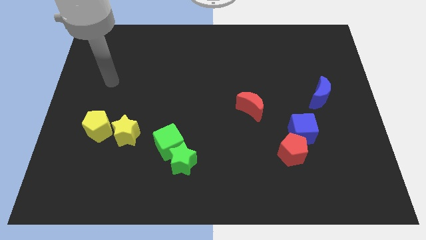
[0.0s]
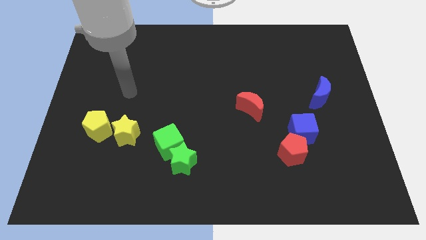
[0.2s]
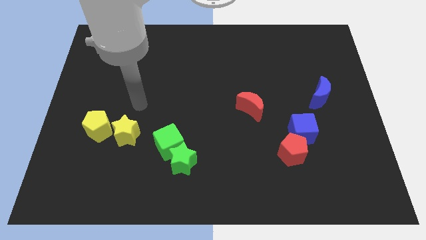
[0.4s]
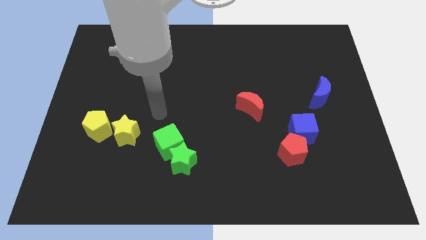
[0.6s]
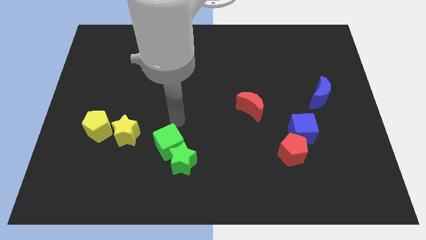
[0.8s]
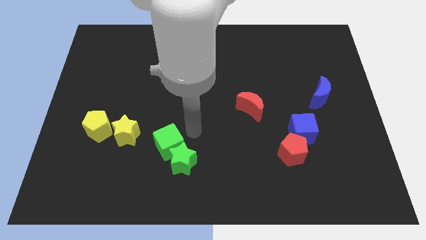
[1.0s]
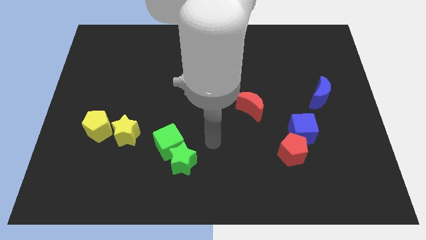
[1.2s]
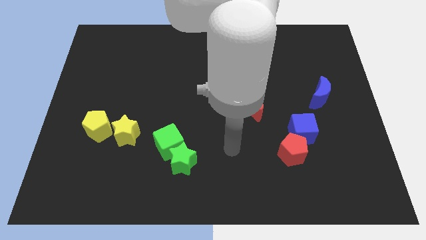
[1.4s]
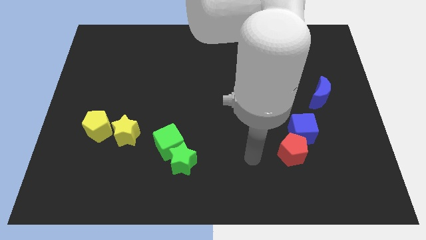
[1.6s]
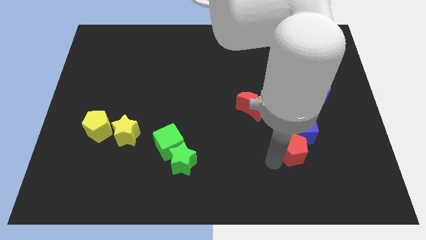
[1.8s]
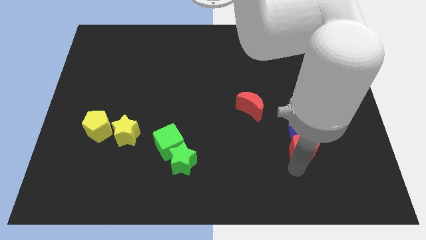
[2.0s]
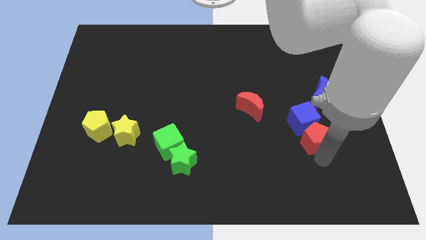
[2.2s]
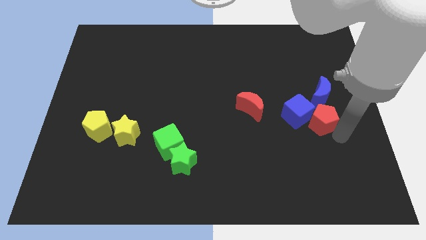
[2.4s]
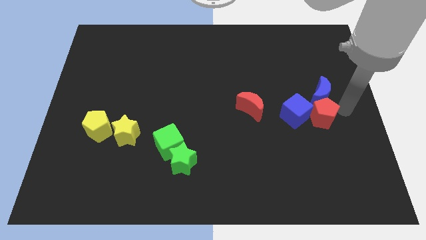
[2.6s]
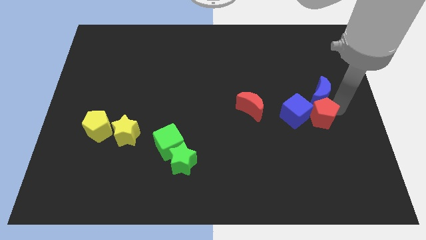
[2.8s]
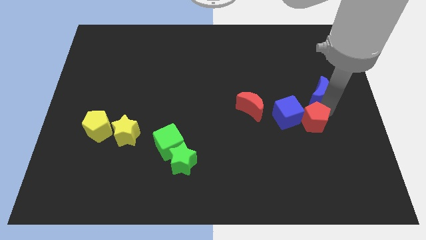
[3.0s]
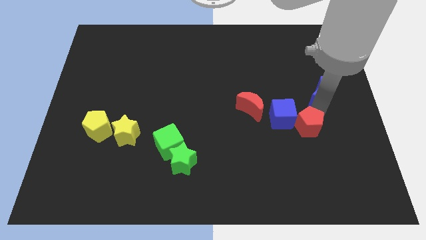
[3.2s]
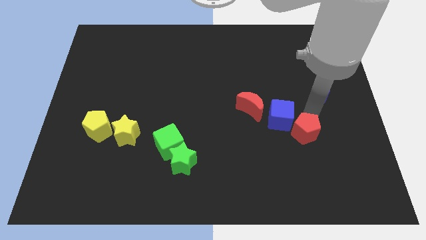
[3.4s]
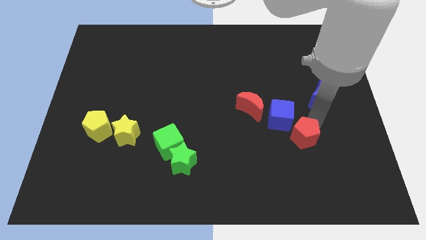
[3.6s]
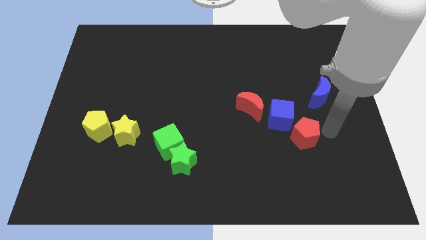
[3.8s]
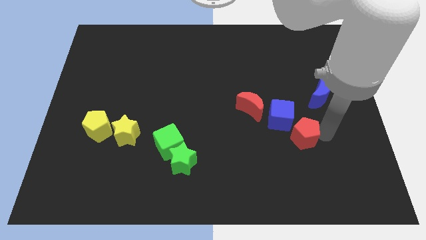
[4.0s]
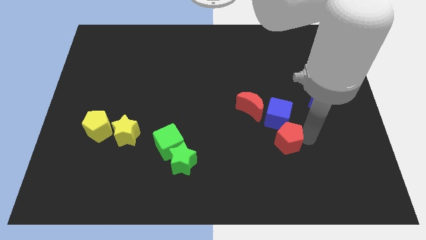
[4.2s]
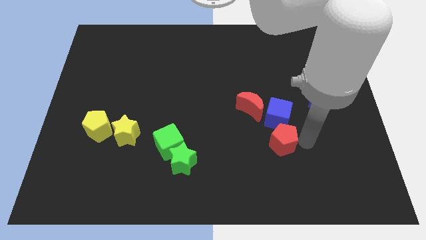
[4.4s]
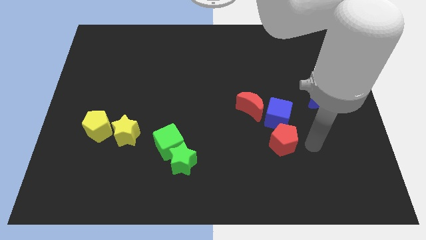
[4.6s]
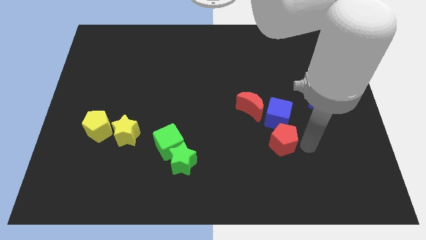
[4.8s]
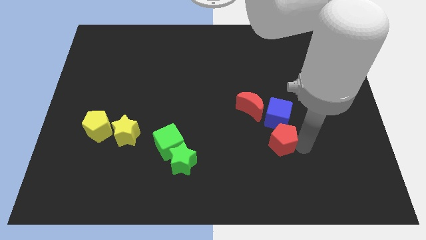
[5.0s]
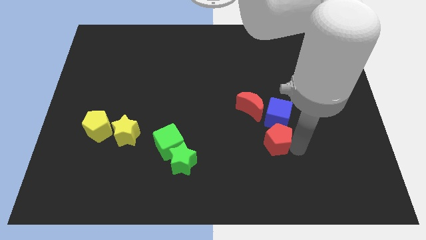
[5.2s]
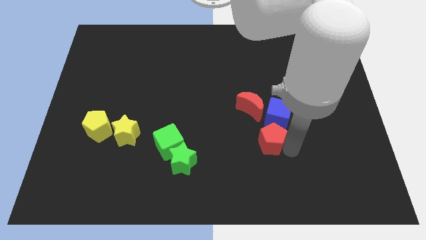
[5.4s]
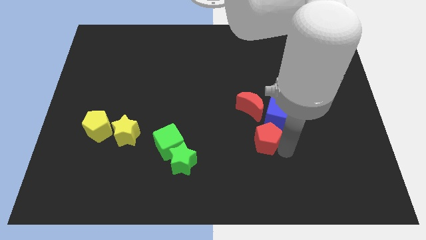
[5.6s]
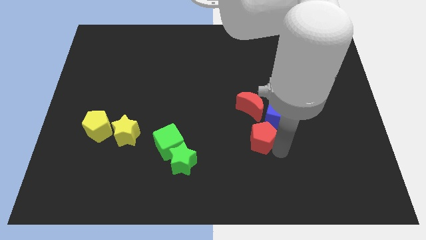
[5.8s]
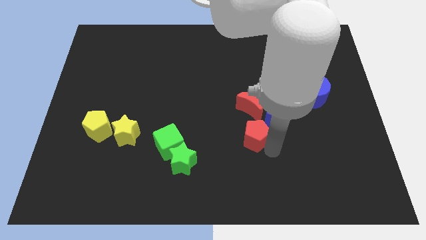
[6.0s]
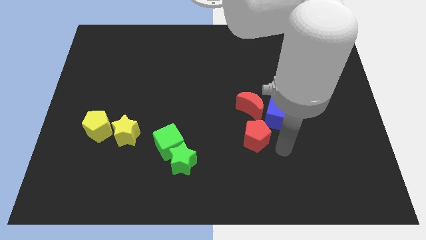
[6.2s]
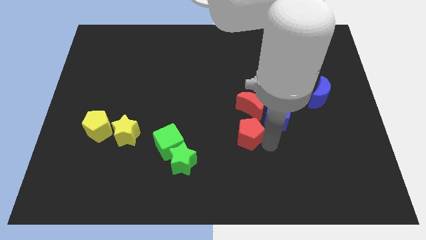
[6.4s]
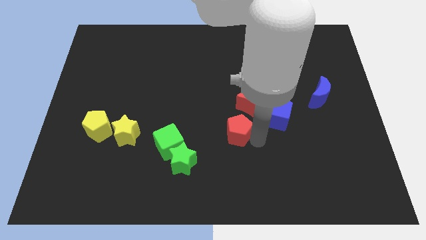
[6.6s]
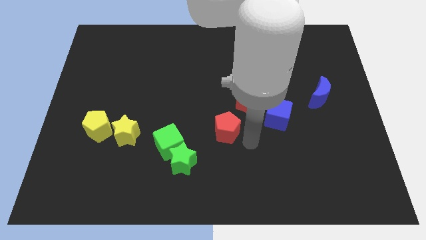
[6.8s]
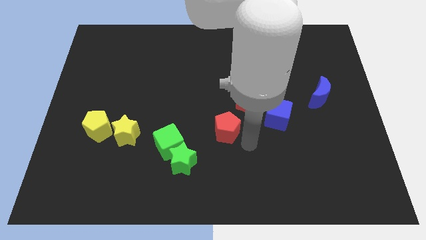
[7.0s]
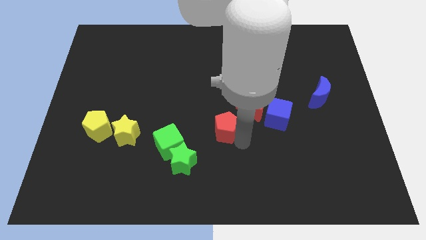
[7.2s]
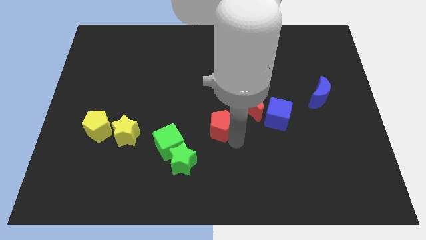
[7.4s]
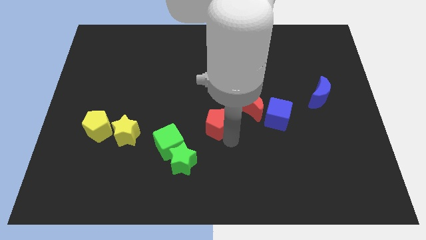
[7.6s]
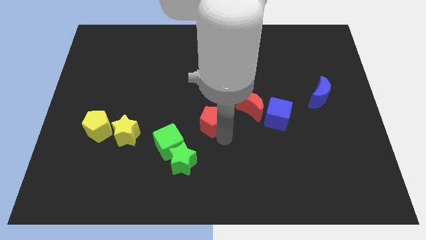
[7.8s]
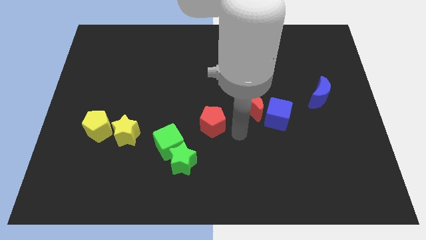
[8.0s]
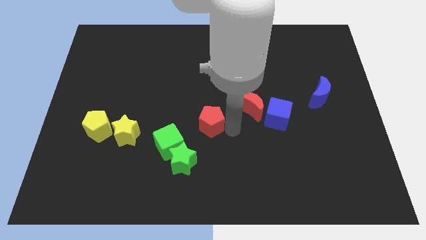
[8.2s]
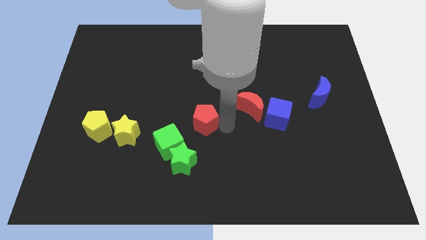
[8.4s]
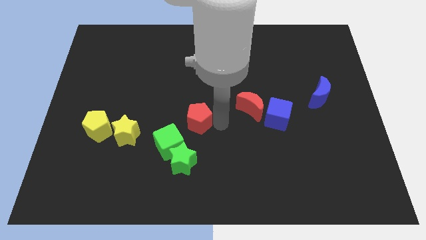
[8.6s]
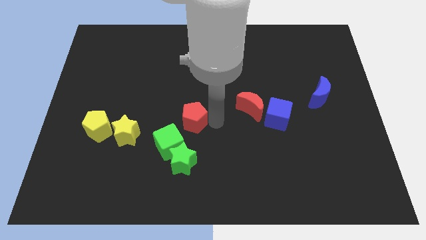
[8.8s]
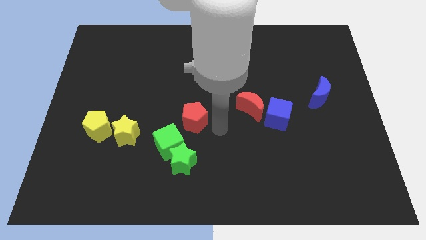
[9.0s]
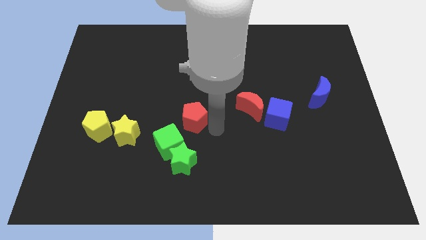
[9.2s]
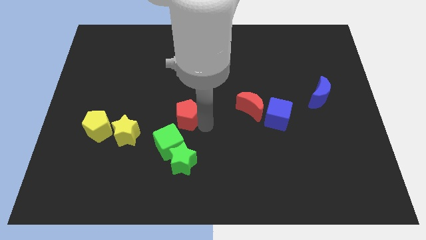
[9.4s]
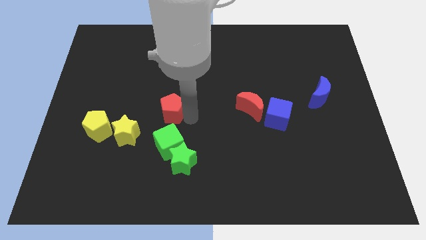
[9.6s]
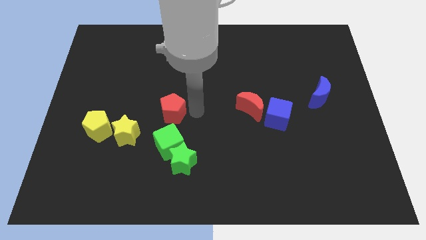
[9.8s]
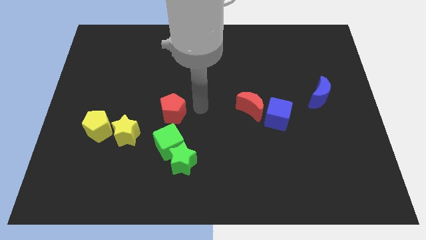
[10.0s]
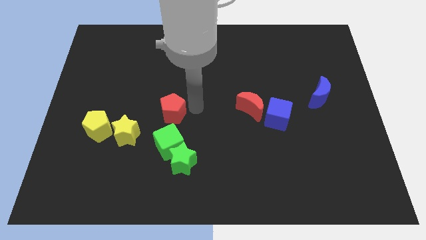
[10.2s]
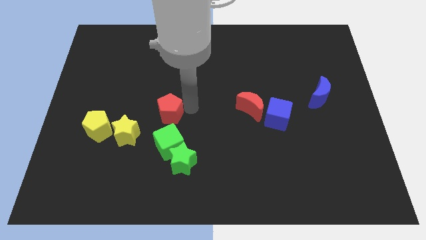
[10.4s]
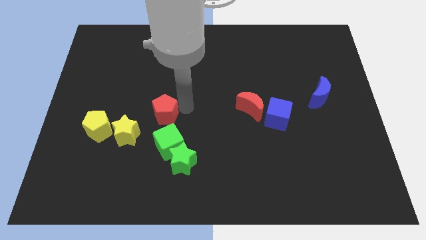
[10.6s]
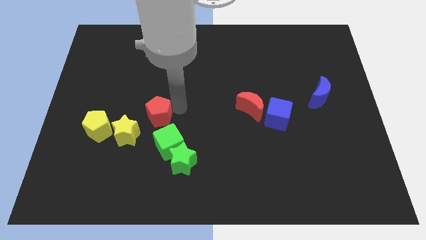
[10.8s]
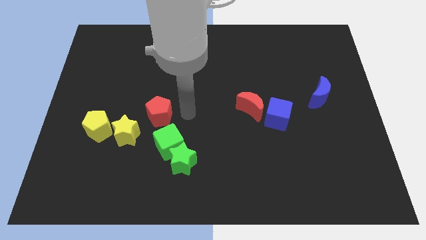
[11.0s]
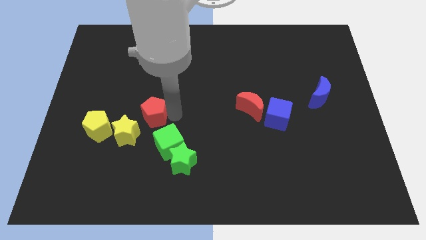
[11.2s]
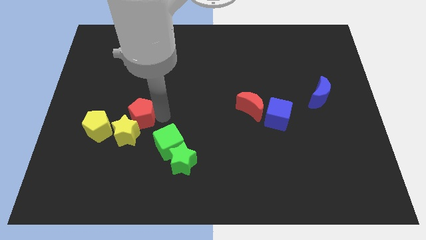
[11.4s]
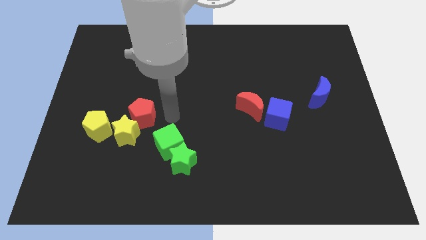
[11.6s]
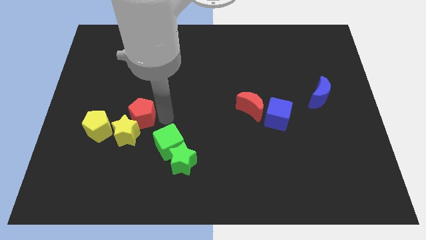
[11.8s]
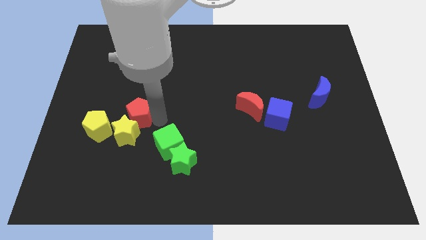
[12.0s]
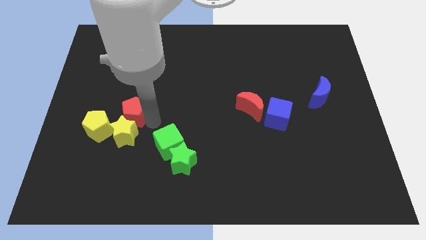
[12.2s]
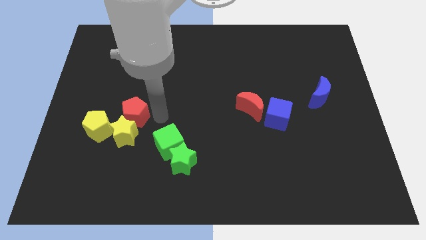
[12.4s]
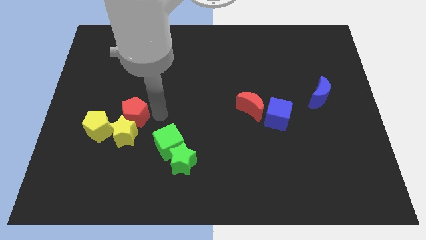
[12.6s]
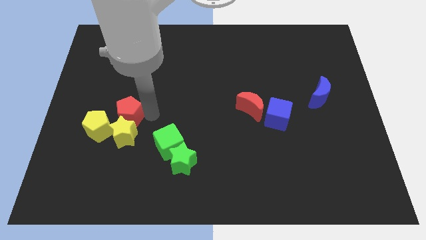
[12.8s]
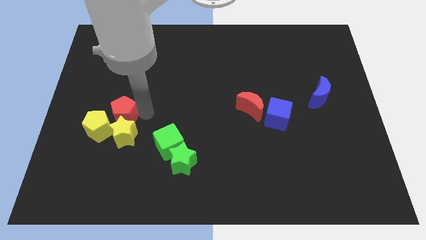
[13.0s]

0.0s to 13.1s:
put the red pentagon close to the yellow pentagon

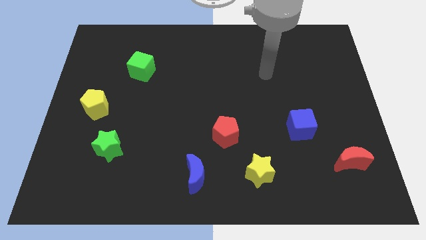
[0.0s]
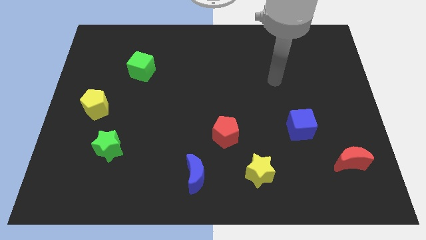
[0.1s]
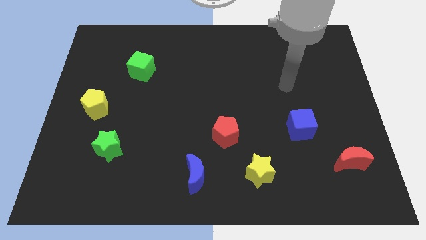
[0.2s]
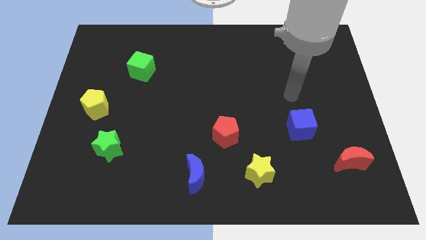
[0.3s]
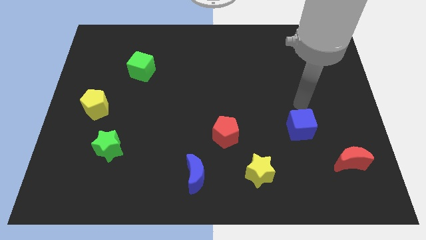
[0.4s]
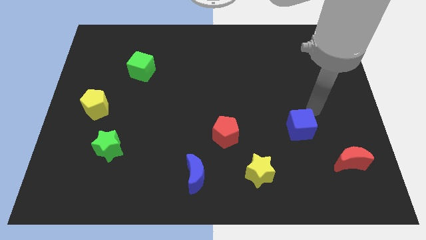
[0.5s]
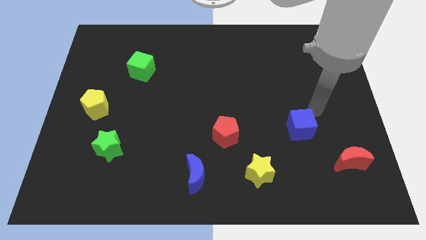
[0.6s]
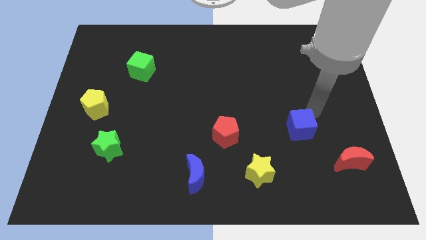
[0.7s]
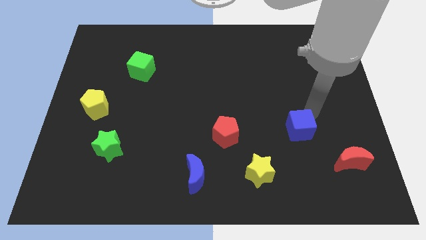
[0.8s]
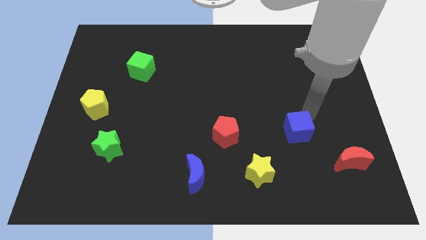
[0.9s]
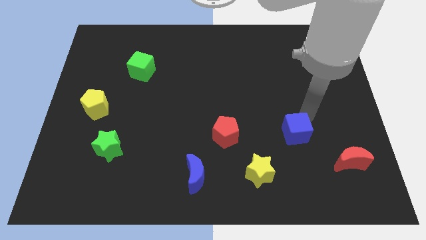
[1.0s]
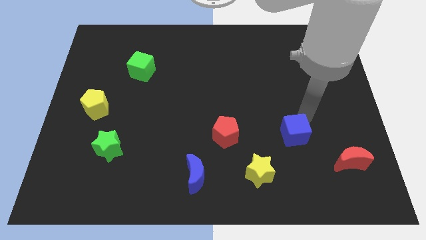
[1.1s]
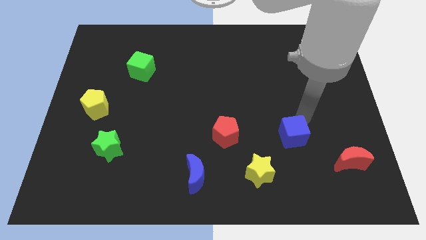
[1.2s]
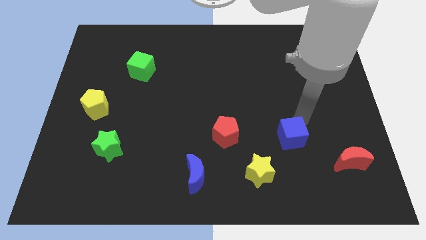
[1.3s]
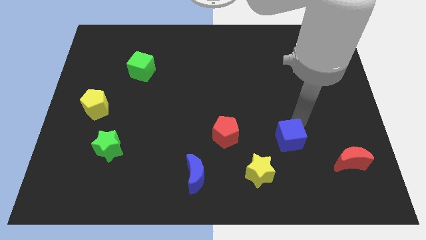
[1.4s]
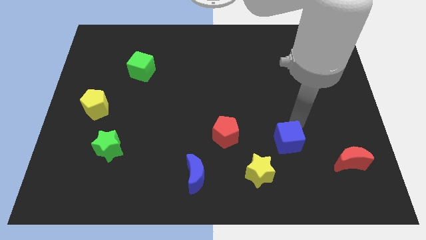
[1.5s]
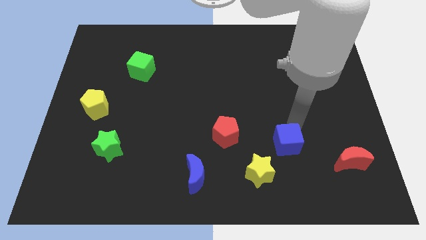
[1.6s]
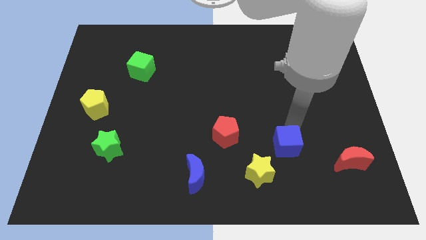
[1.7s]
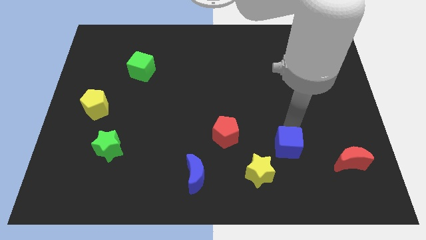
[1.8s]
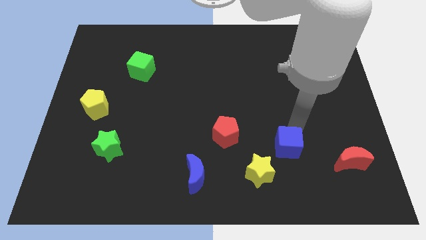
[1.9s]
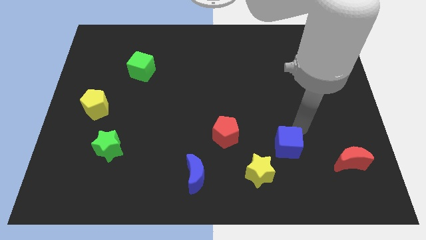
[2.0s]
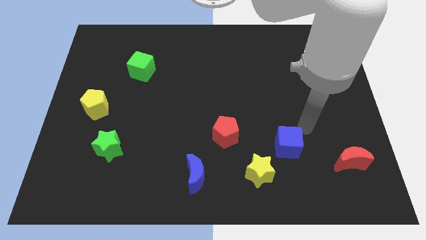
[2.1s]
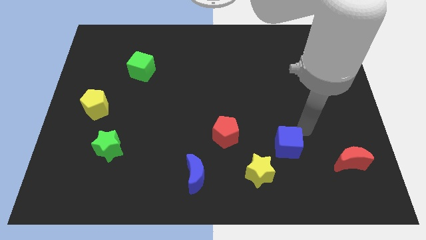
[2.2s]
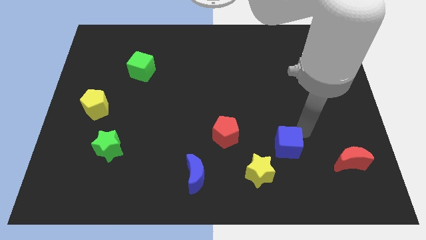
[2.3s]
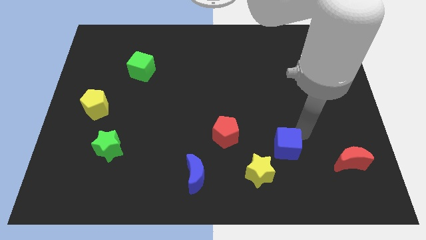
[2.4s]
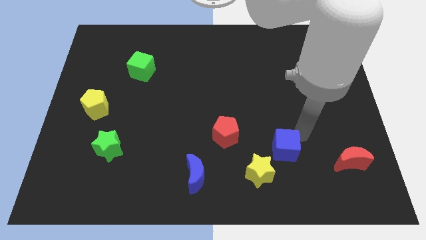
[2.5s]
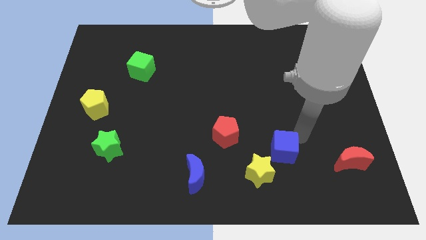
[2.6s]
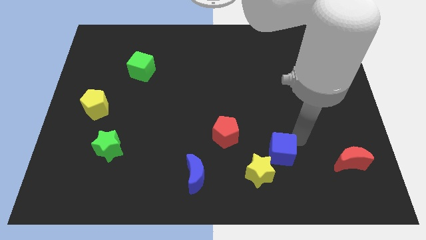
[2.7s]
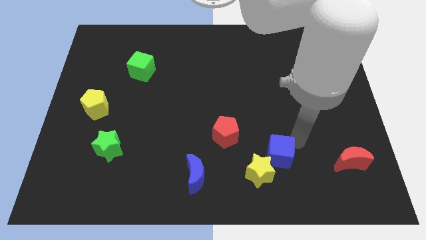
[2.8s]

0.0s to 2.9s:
slide the blue cube towards the yellow star
